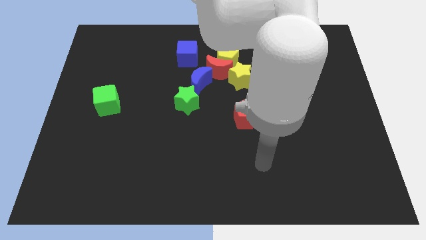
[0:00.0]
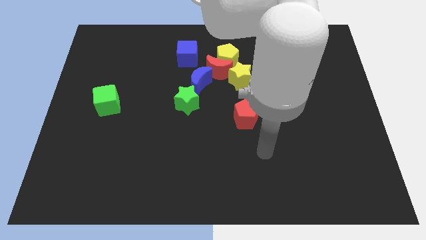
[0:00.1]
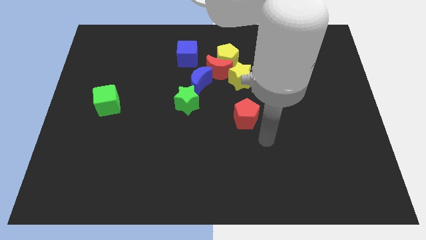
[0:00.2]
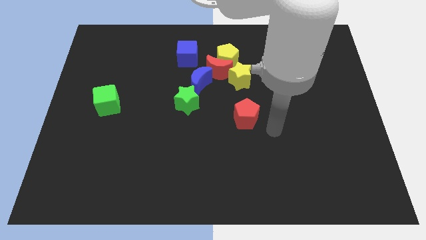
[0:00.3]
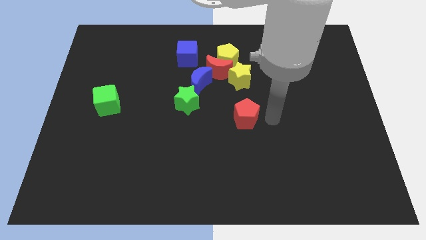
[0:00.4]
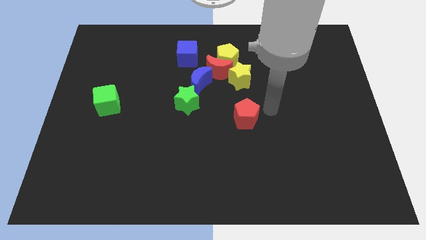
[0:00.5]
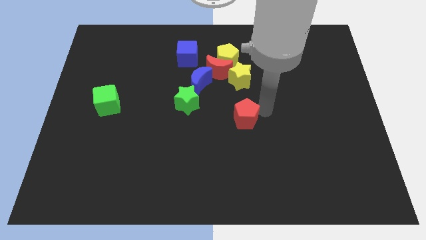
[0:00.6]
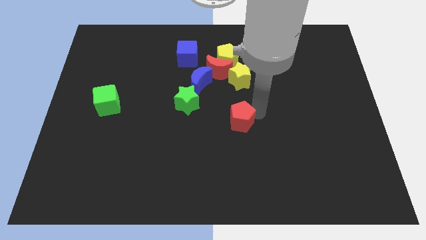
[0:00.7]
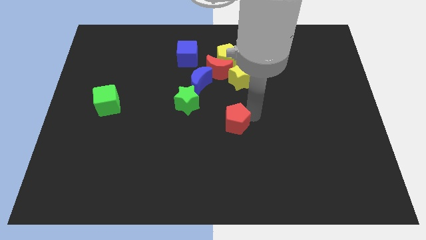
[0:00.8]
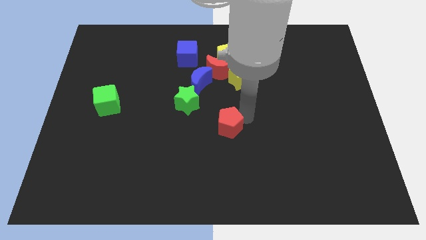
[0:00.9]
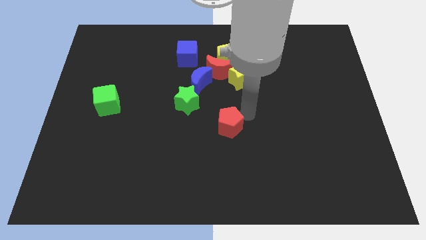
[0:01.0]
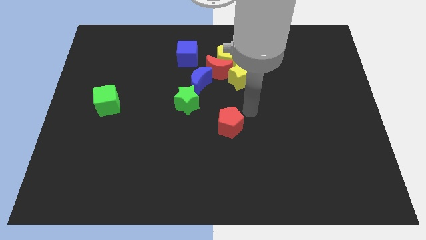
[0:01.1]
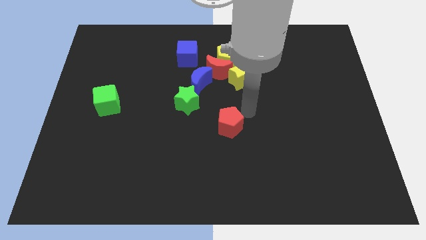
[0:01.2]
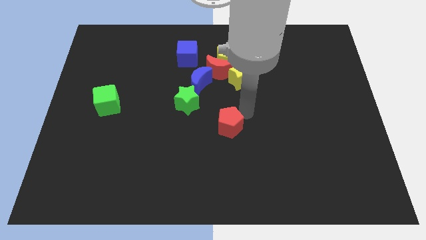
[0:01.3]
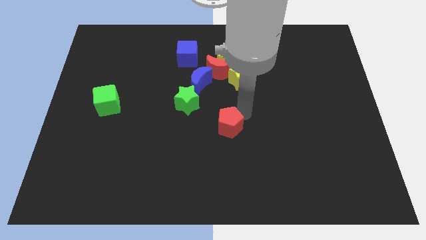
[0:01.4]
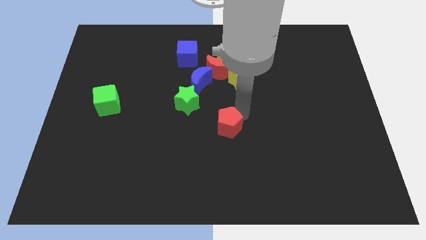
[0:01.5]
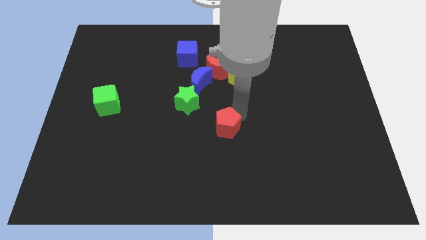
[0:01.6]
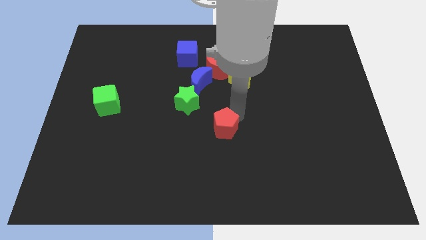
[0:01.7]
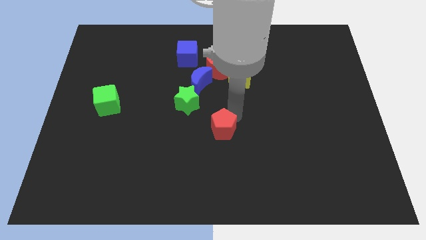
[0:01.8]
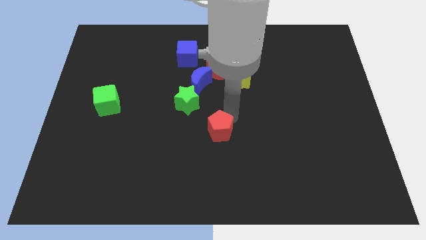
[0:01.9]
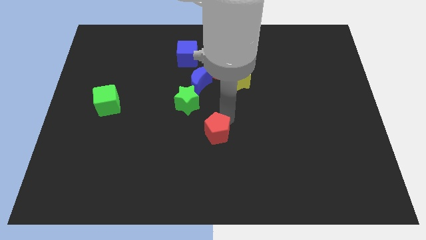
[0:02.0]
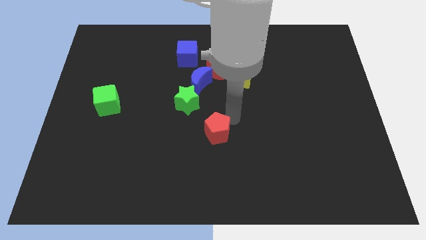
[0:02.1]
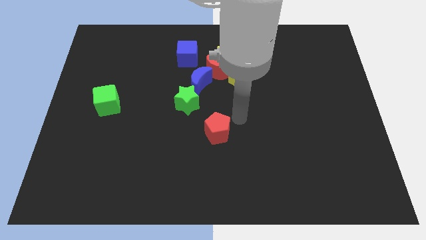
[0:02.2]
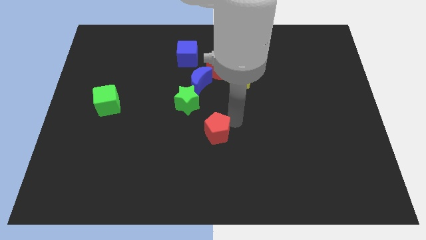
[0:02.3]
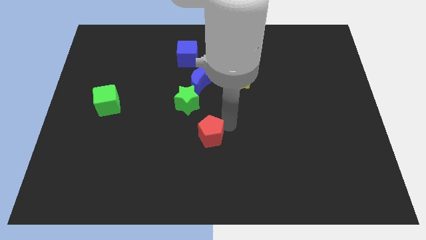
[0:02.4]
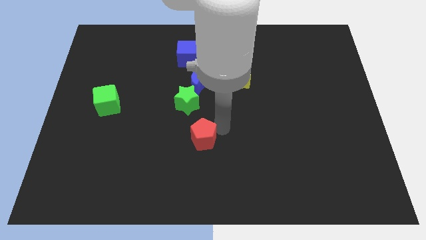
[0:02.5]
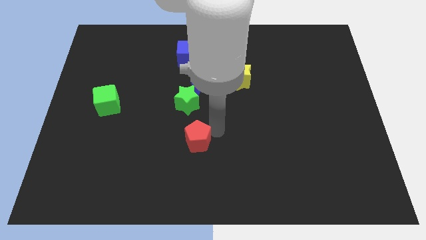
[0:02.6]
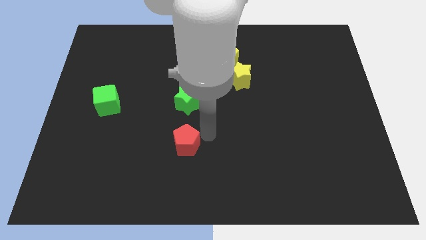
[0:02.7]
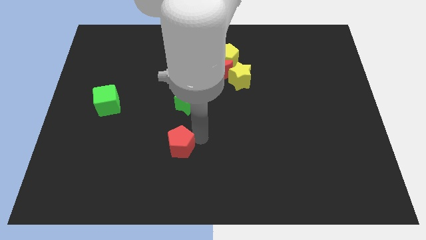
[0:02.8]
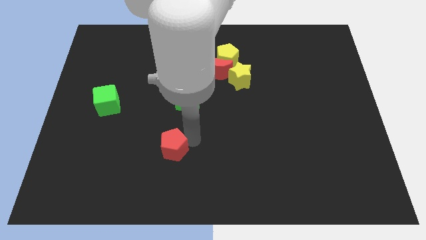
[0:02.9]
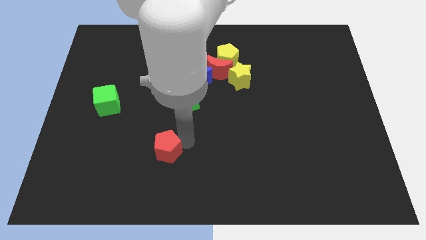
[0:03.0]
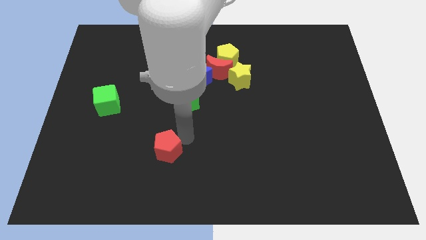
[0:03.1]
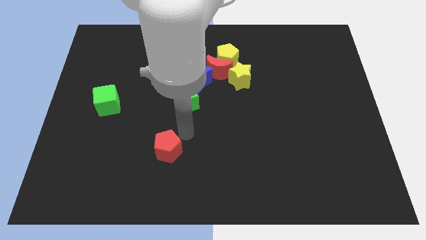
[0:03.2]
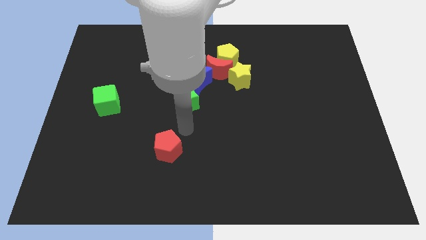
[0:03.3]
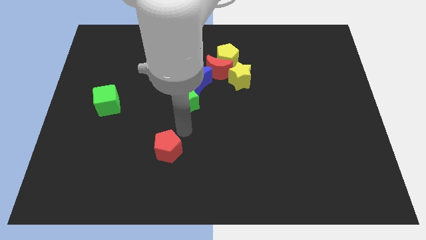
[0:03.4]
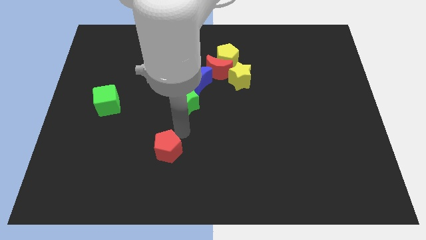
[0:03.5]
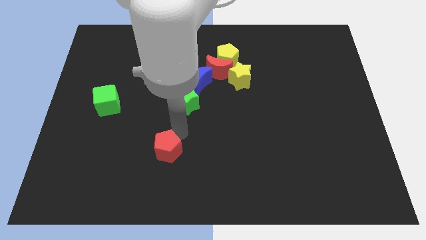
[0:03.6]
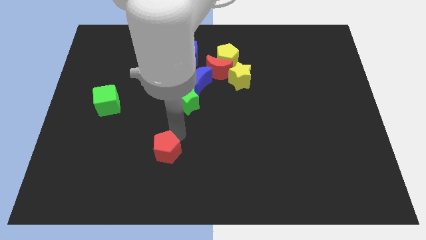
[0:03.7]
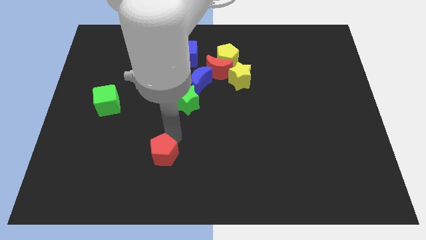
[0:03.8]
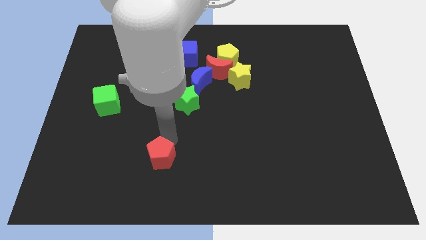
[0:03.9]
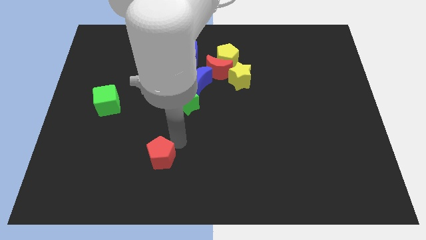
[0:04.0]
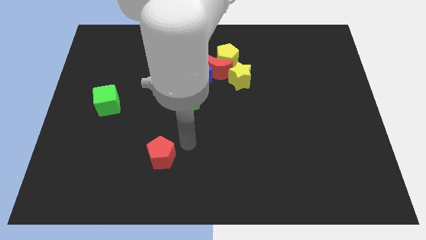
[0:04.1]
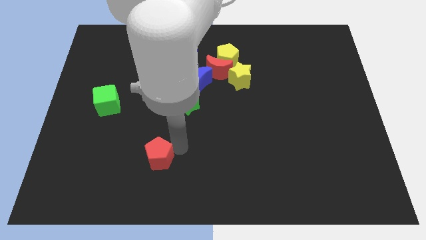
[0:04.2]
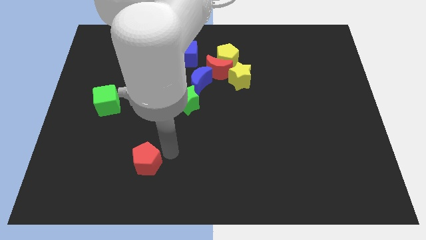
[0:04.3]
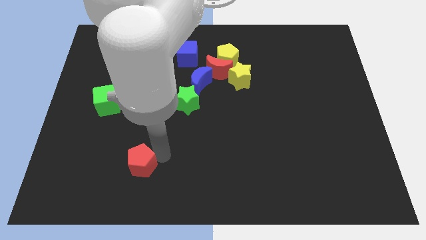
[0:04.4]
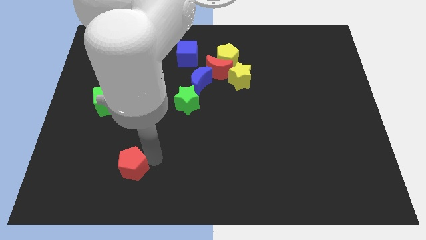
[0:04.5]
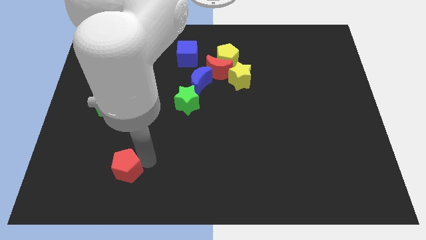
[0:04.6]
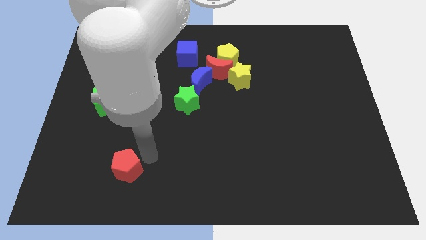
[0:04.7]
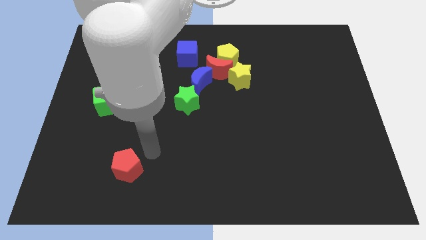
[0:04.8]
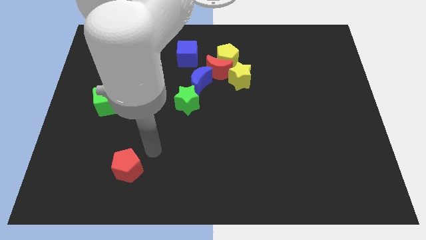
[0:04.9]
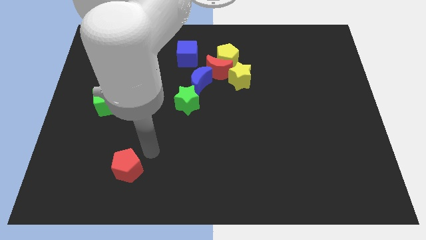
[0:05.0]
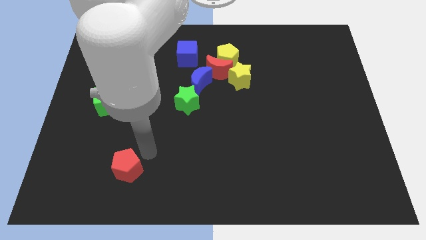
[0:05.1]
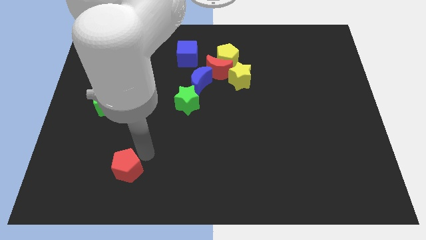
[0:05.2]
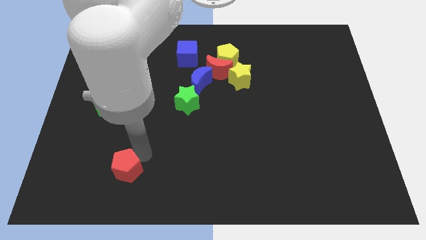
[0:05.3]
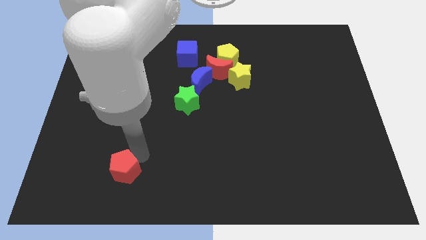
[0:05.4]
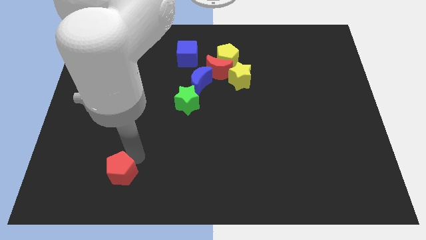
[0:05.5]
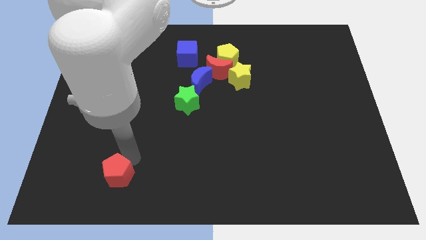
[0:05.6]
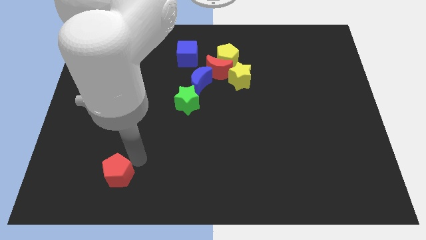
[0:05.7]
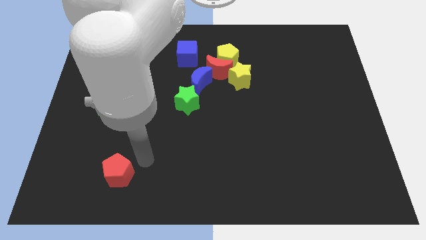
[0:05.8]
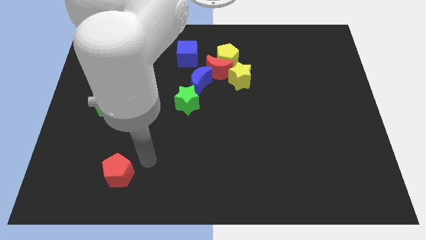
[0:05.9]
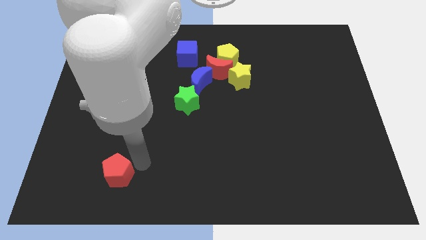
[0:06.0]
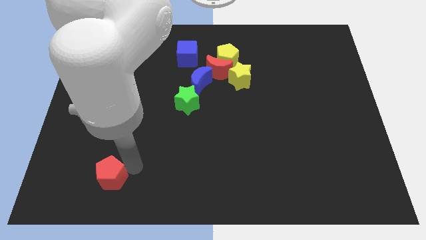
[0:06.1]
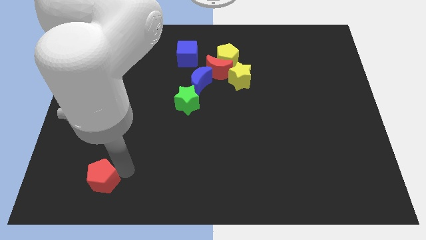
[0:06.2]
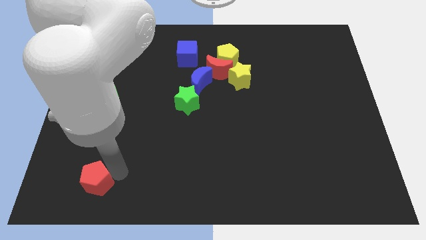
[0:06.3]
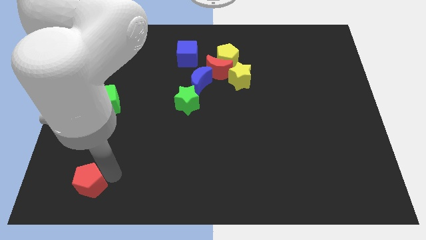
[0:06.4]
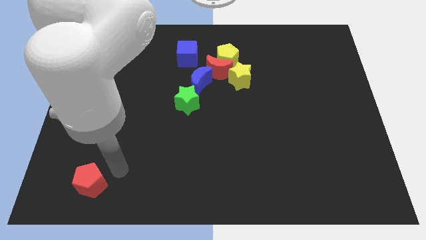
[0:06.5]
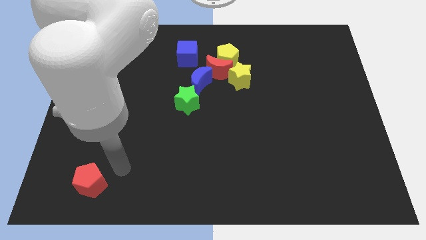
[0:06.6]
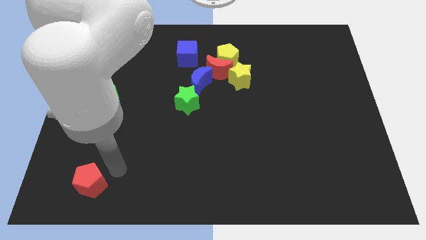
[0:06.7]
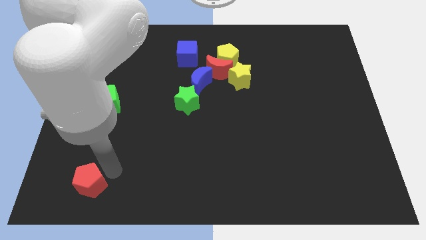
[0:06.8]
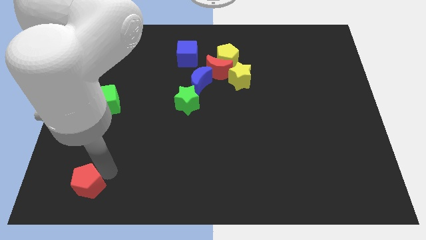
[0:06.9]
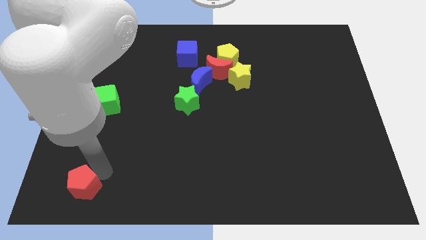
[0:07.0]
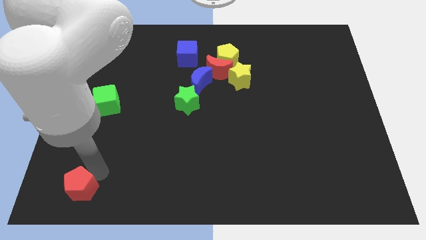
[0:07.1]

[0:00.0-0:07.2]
push the red pentagon to the bottom left of the board
